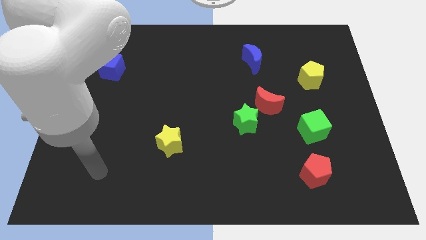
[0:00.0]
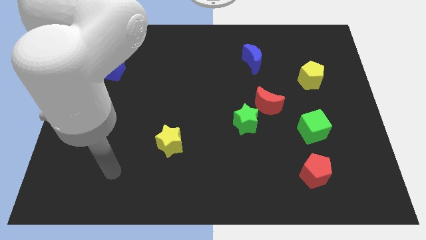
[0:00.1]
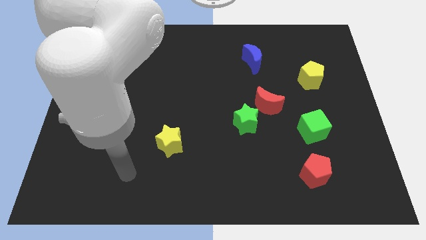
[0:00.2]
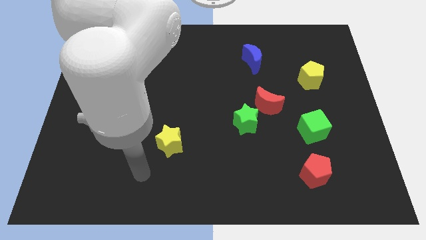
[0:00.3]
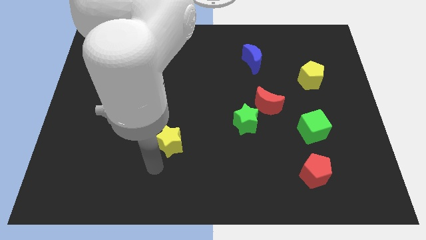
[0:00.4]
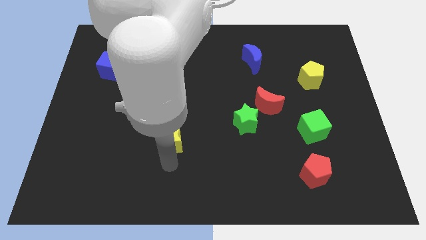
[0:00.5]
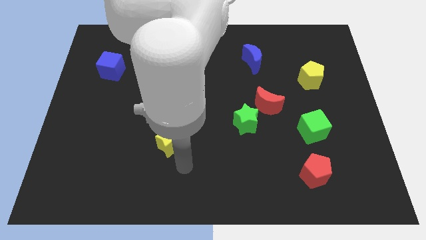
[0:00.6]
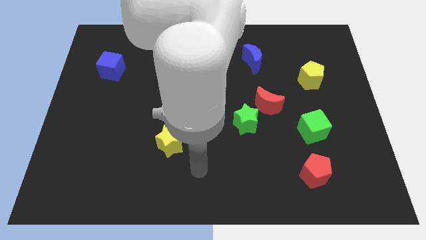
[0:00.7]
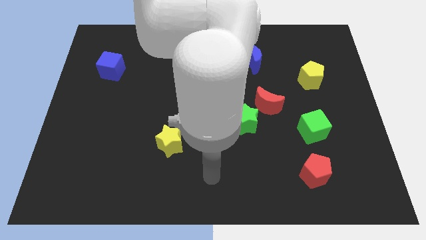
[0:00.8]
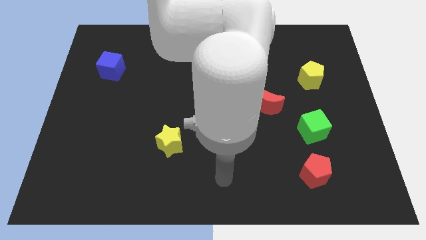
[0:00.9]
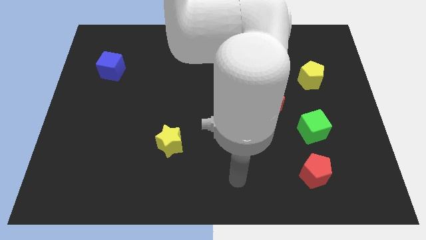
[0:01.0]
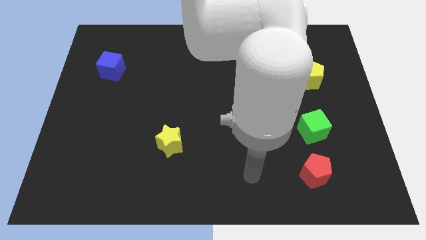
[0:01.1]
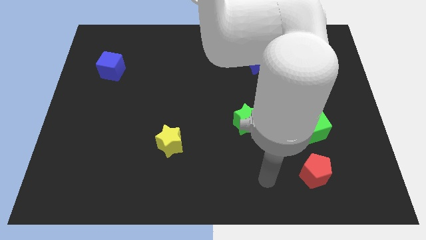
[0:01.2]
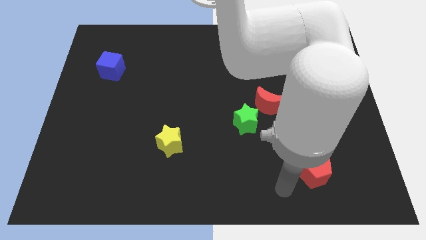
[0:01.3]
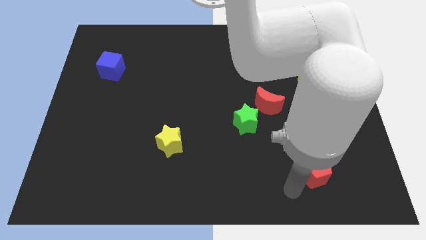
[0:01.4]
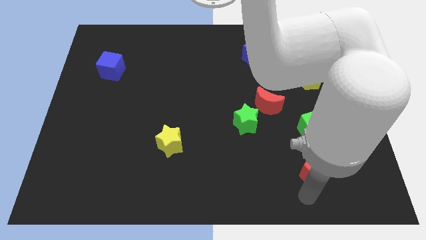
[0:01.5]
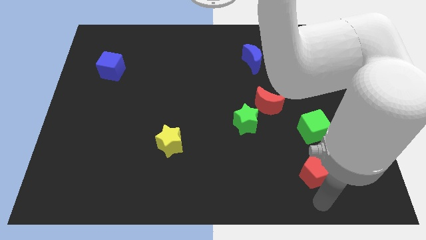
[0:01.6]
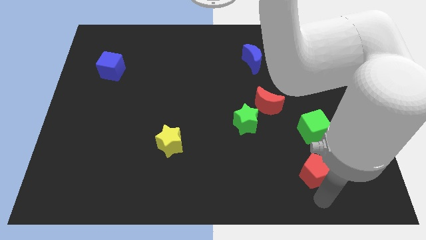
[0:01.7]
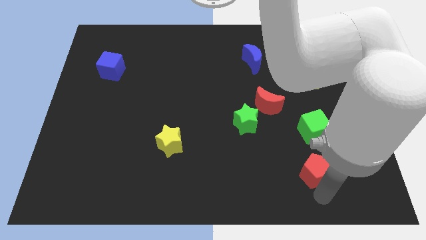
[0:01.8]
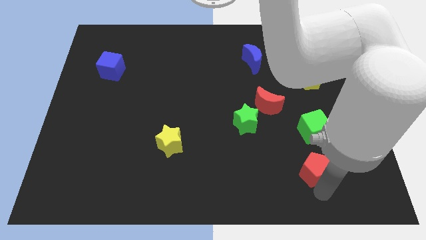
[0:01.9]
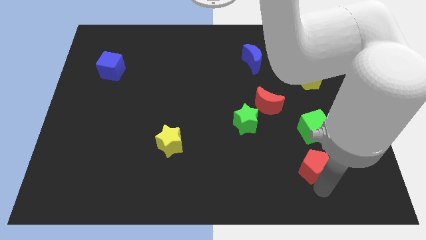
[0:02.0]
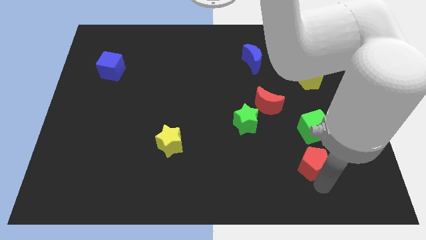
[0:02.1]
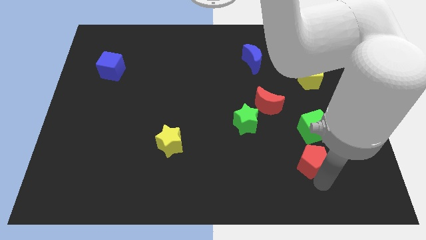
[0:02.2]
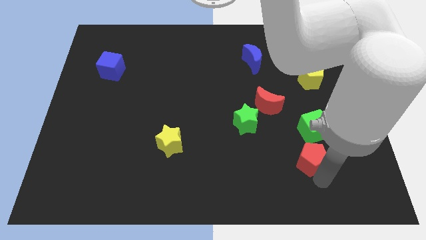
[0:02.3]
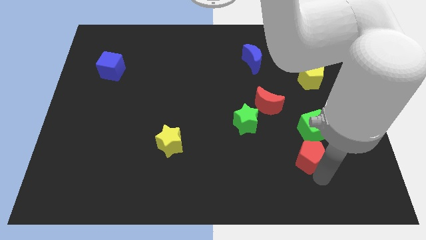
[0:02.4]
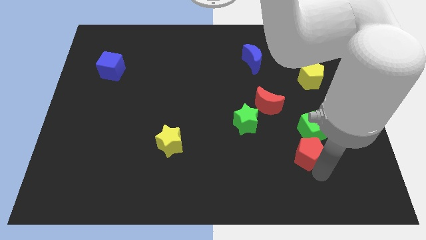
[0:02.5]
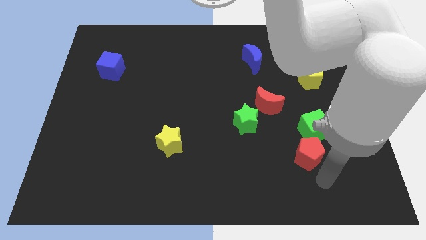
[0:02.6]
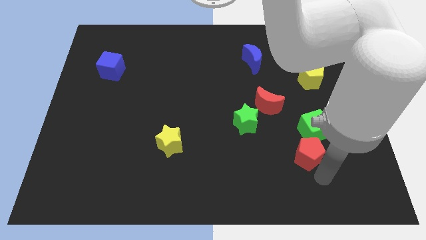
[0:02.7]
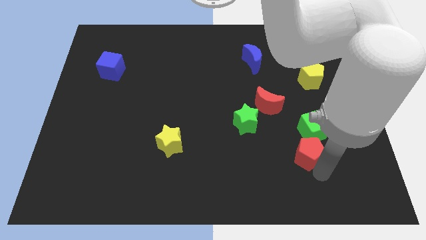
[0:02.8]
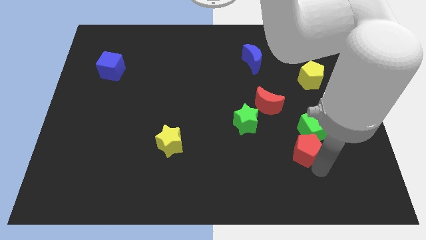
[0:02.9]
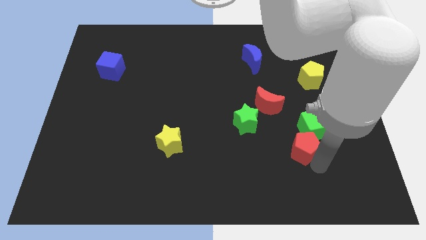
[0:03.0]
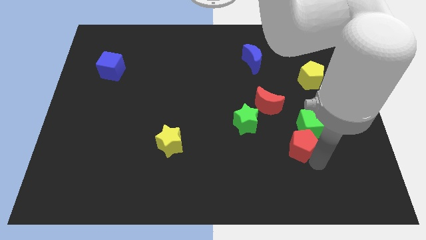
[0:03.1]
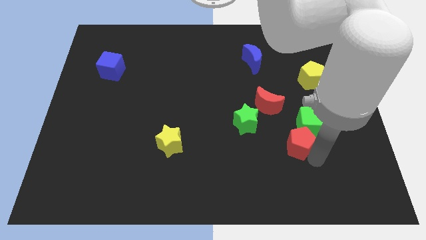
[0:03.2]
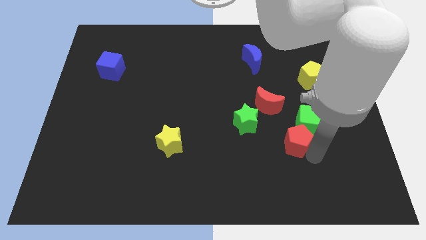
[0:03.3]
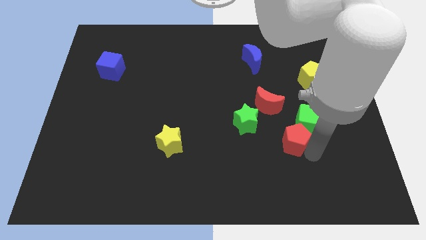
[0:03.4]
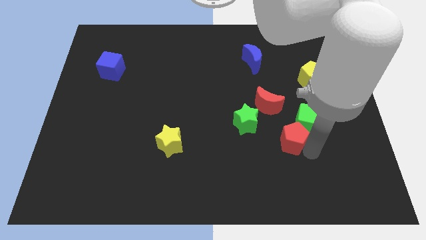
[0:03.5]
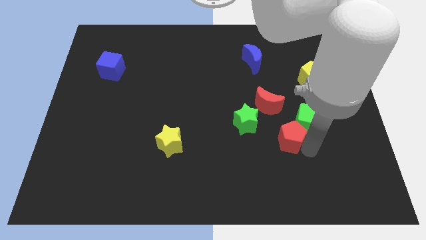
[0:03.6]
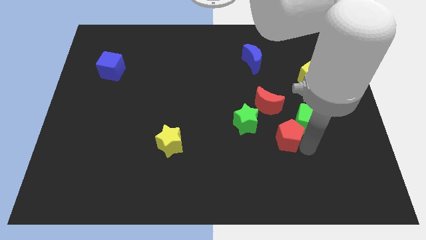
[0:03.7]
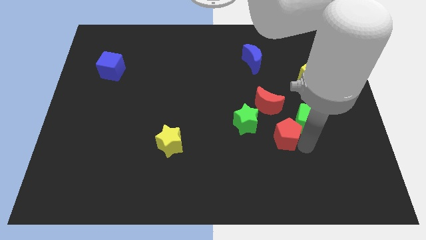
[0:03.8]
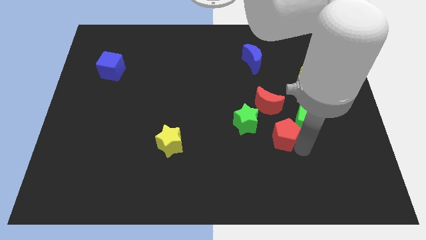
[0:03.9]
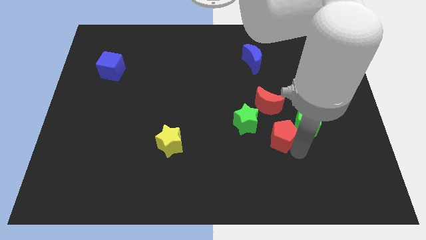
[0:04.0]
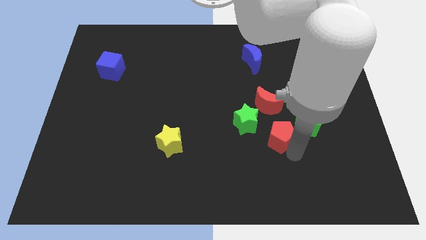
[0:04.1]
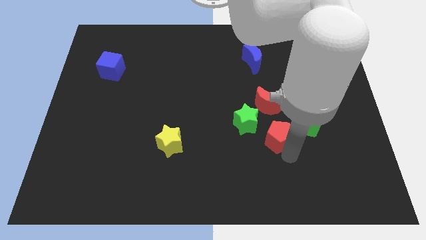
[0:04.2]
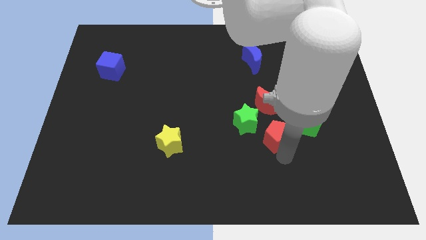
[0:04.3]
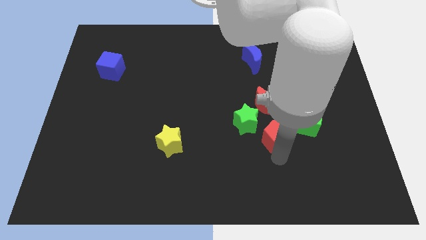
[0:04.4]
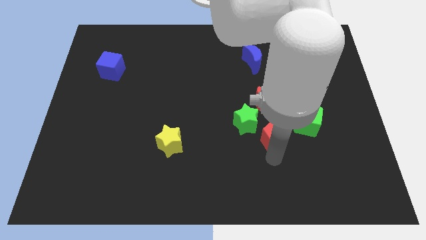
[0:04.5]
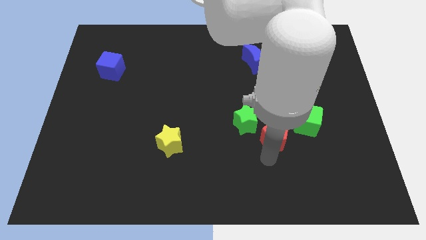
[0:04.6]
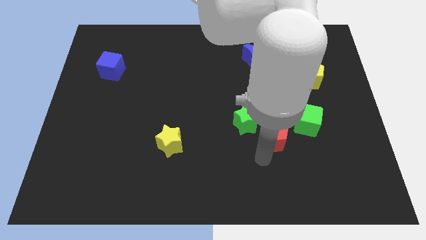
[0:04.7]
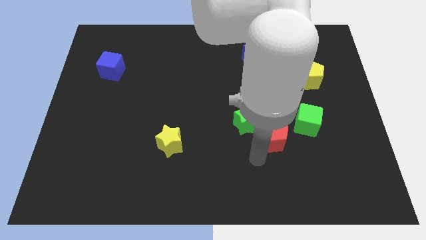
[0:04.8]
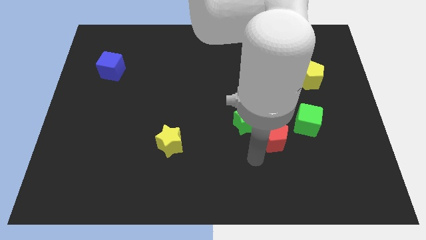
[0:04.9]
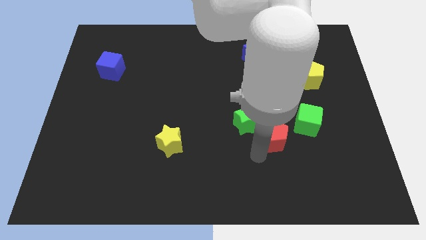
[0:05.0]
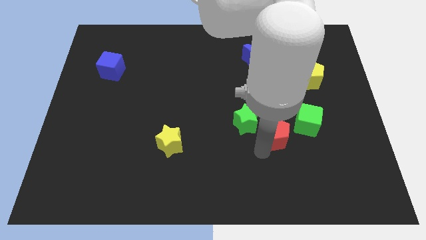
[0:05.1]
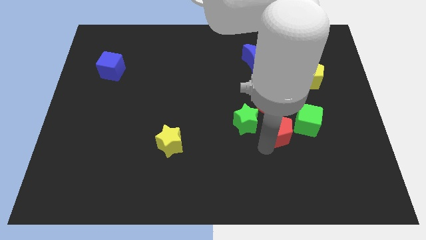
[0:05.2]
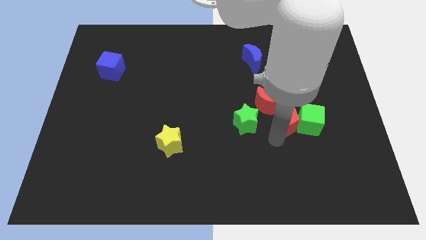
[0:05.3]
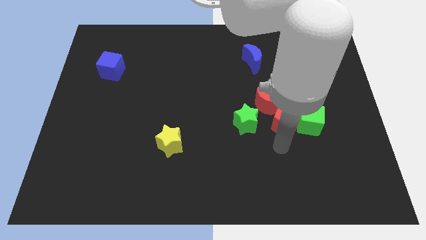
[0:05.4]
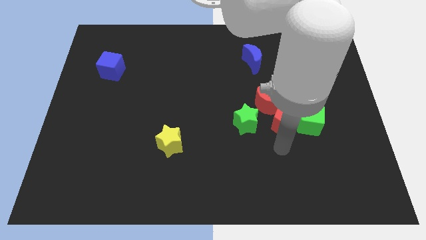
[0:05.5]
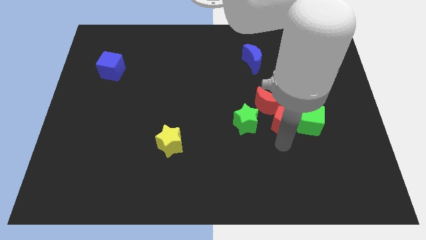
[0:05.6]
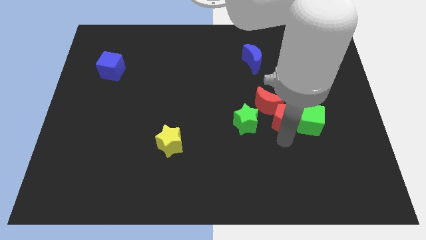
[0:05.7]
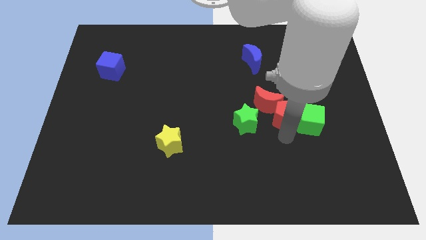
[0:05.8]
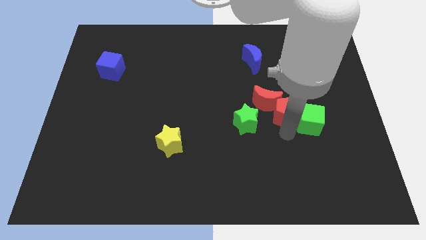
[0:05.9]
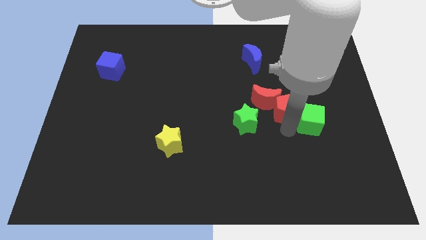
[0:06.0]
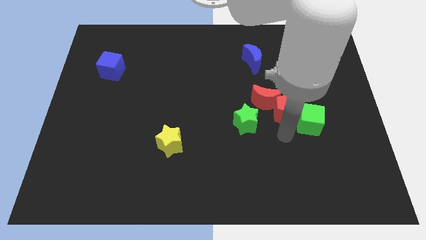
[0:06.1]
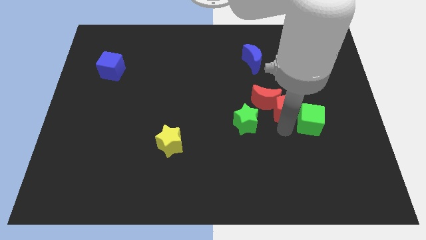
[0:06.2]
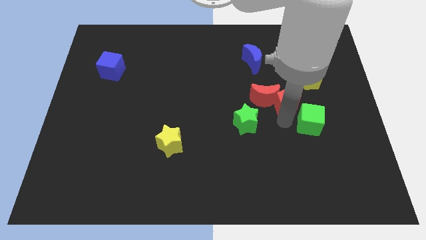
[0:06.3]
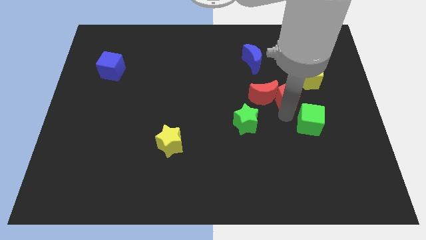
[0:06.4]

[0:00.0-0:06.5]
slide the red pentagon to the top right of the red moon

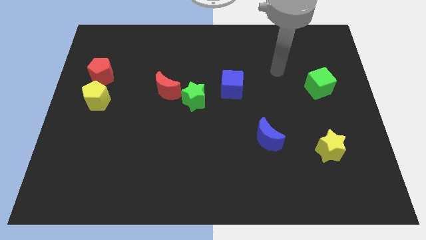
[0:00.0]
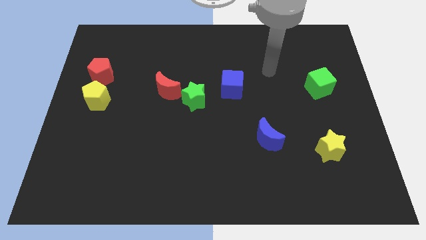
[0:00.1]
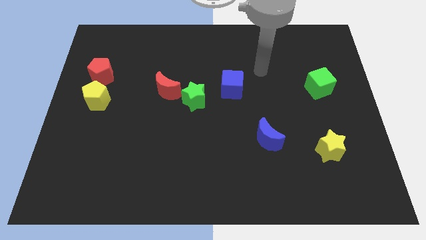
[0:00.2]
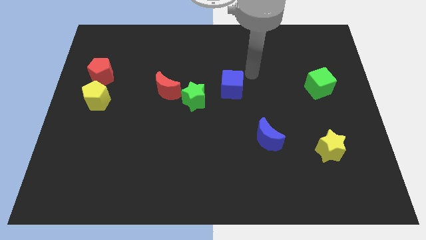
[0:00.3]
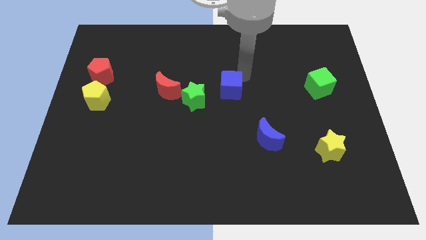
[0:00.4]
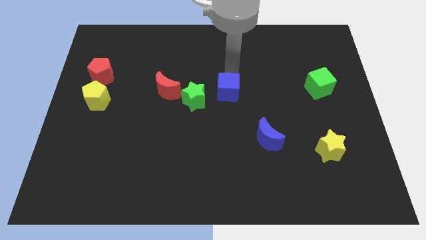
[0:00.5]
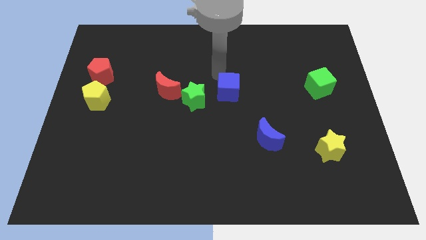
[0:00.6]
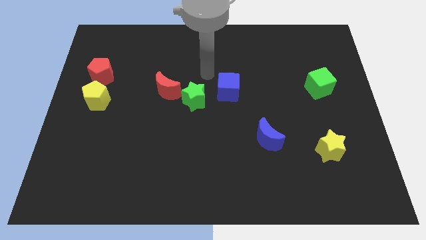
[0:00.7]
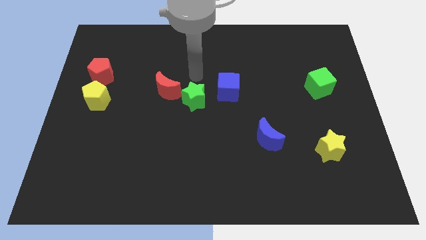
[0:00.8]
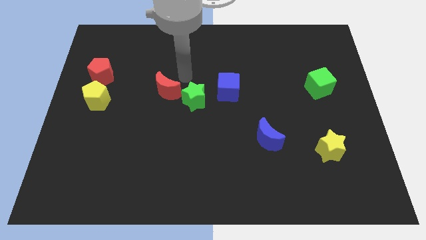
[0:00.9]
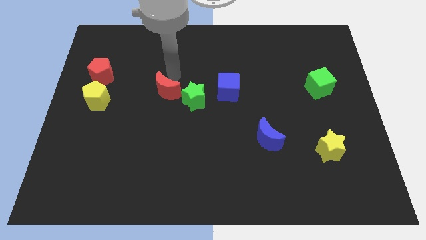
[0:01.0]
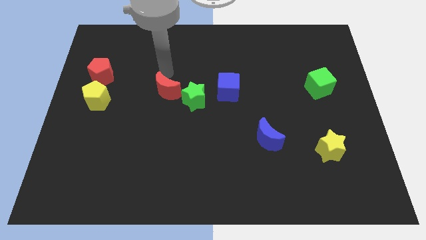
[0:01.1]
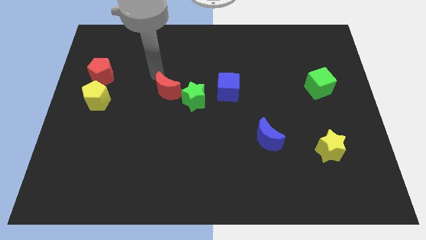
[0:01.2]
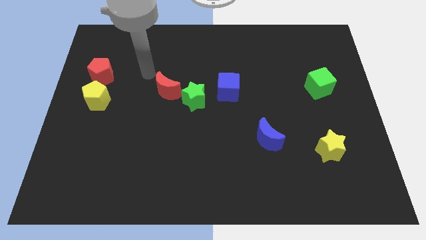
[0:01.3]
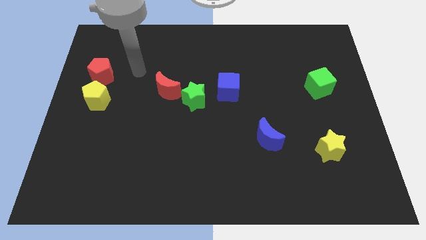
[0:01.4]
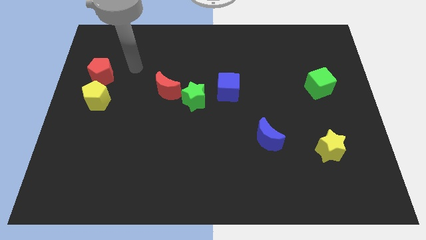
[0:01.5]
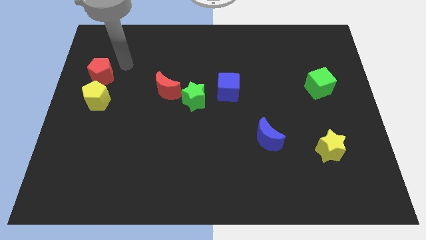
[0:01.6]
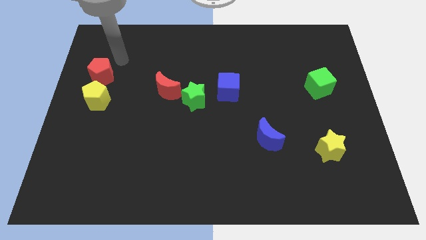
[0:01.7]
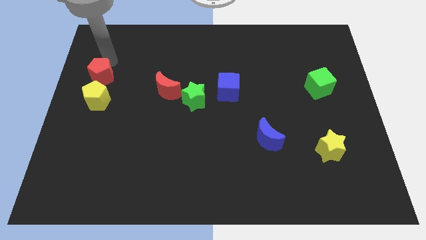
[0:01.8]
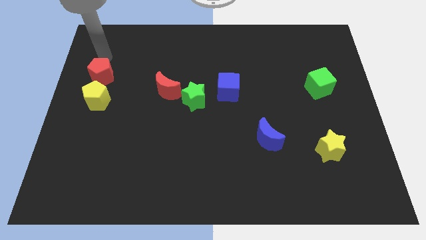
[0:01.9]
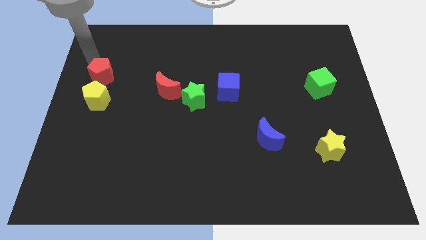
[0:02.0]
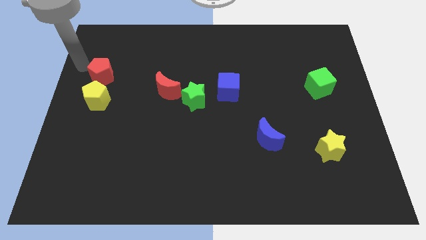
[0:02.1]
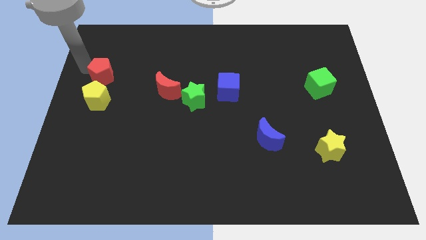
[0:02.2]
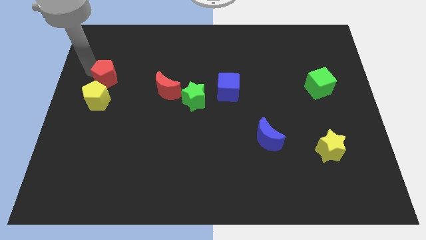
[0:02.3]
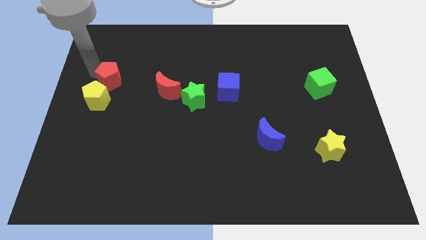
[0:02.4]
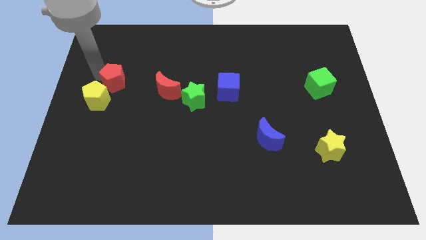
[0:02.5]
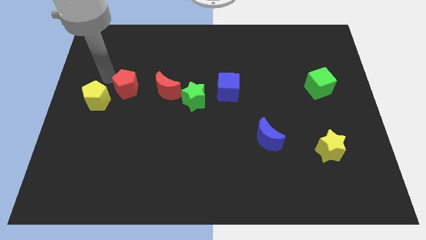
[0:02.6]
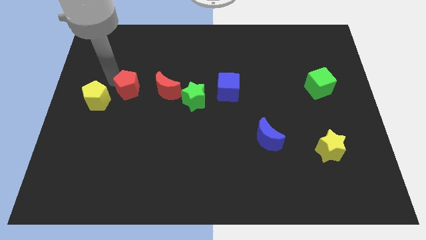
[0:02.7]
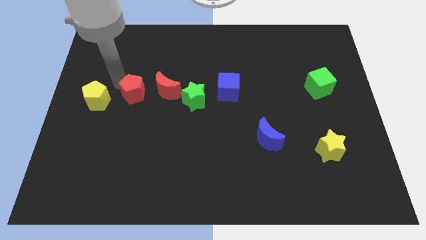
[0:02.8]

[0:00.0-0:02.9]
put the red pentagon to the left side of the green star
